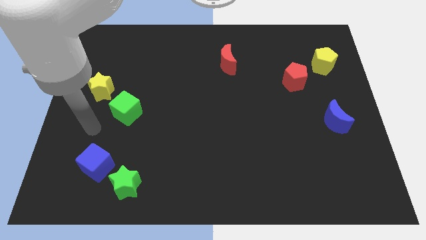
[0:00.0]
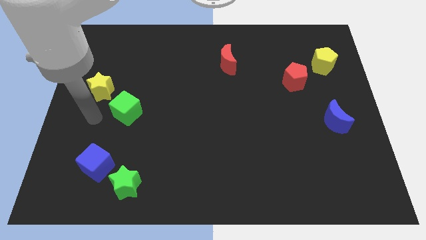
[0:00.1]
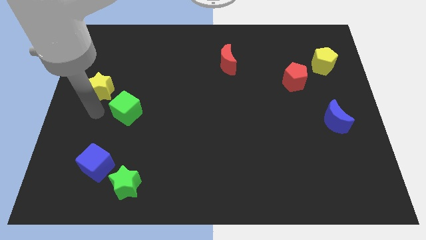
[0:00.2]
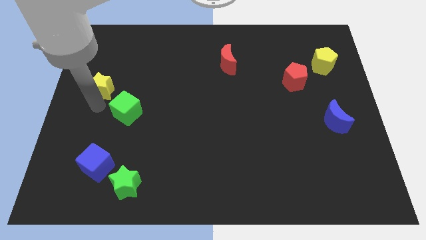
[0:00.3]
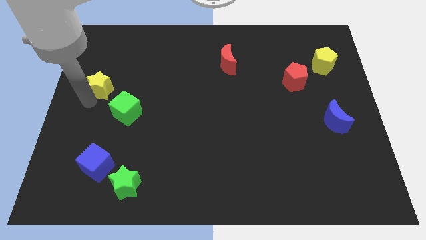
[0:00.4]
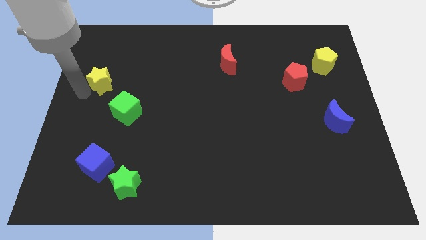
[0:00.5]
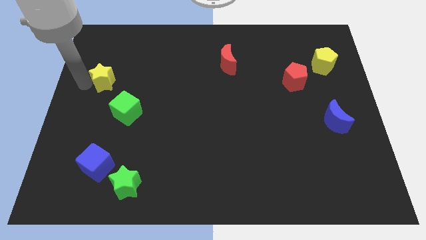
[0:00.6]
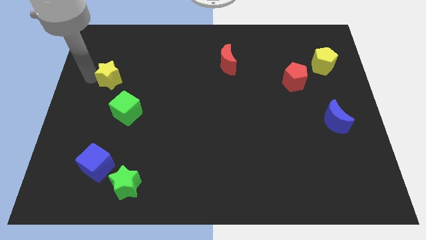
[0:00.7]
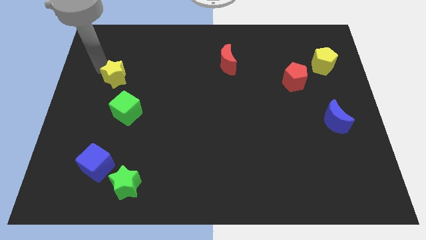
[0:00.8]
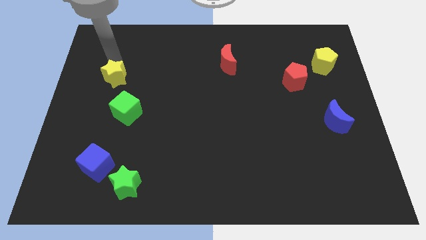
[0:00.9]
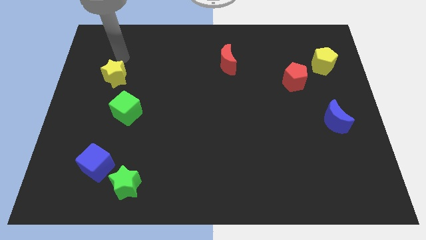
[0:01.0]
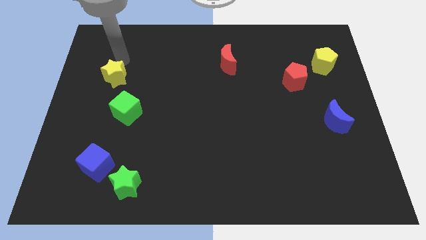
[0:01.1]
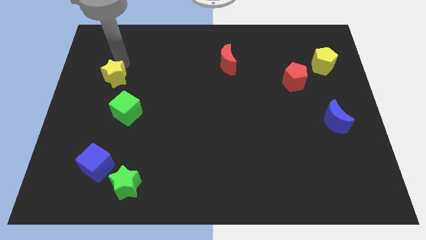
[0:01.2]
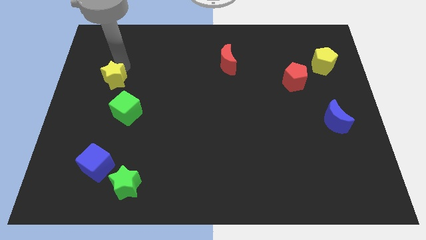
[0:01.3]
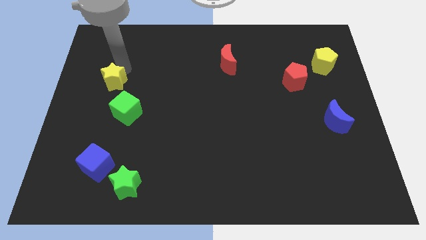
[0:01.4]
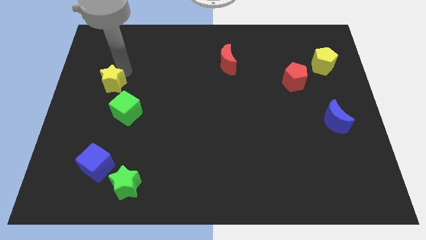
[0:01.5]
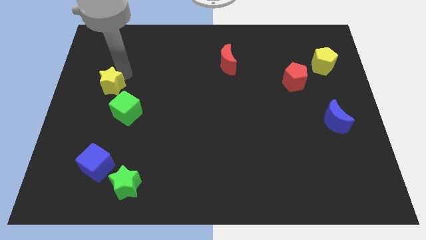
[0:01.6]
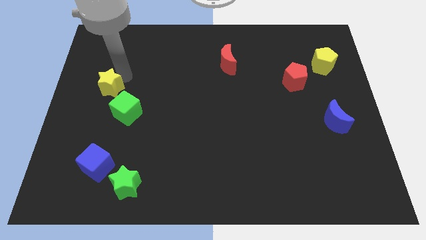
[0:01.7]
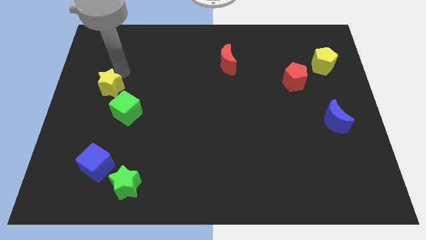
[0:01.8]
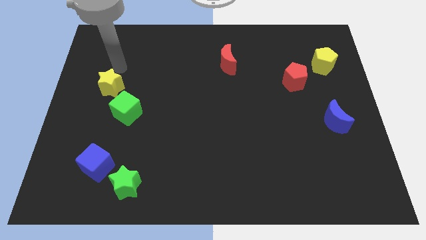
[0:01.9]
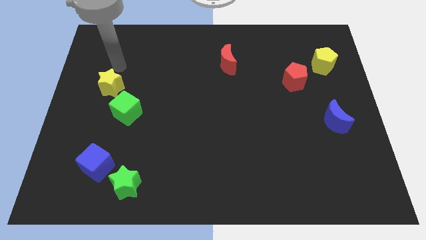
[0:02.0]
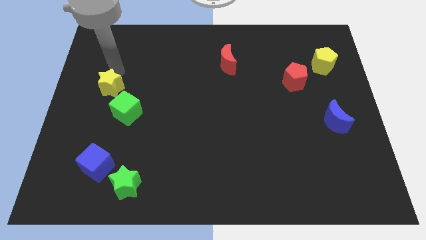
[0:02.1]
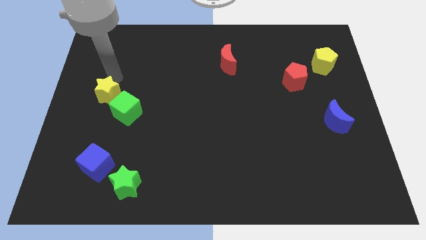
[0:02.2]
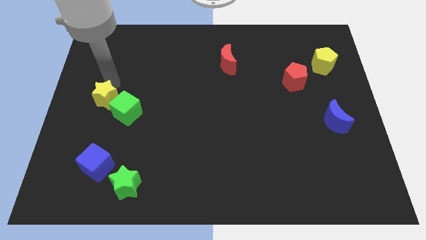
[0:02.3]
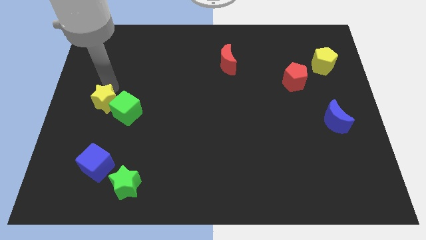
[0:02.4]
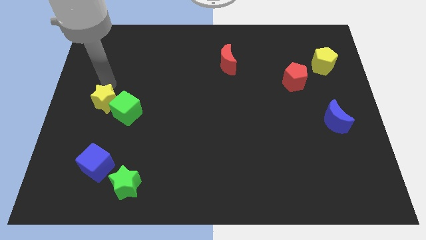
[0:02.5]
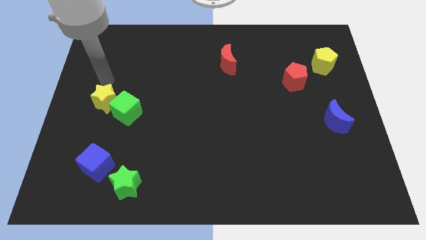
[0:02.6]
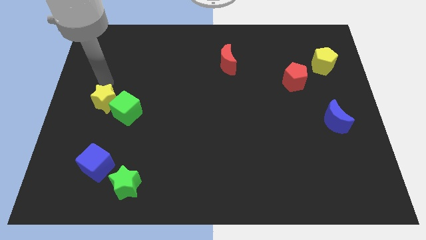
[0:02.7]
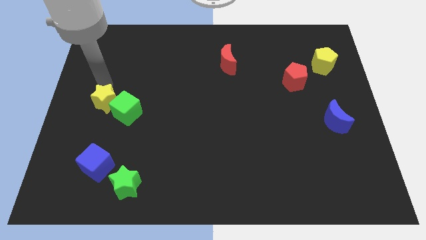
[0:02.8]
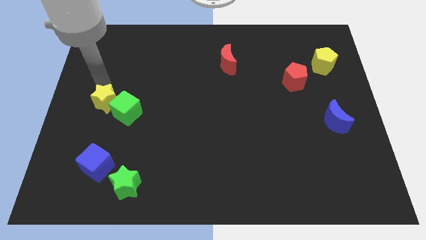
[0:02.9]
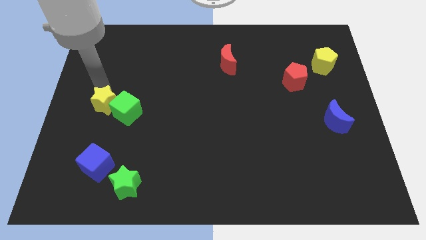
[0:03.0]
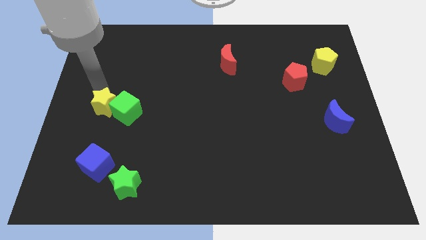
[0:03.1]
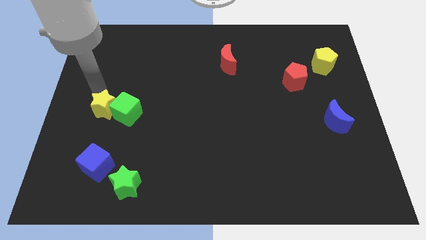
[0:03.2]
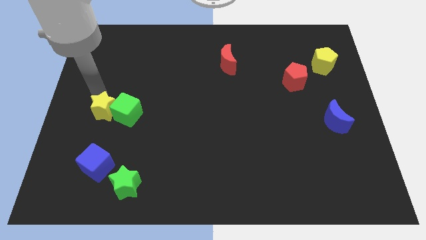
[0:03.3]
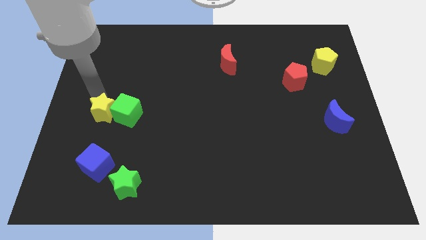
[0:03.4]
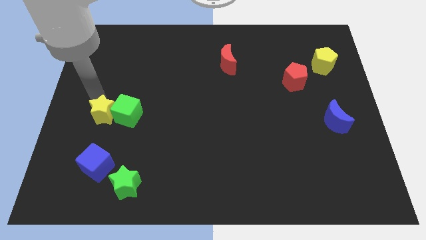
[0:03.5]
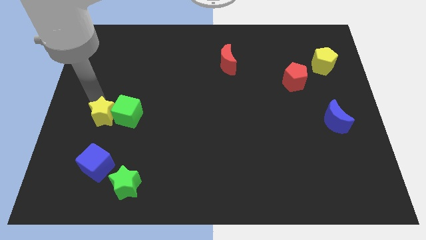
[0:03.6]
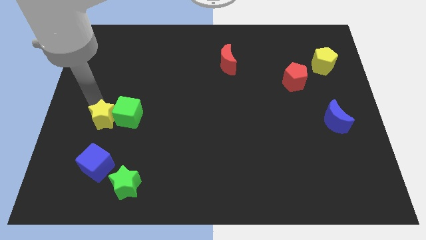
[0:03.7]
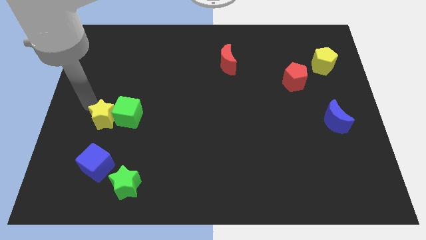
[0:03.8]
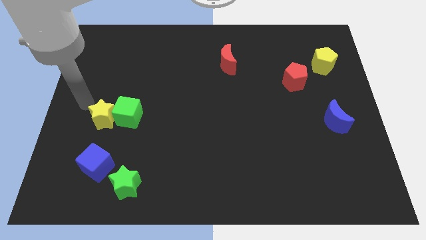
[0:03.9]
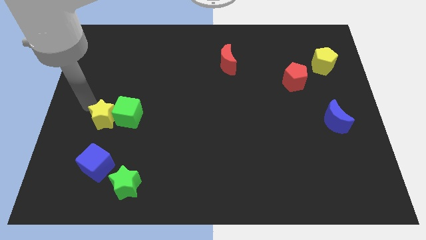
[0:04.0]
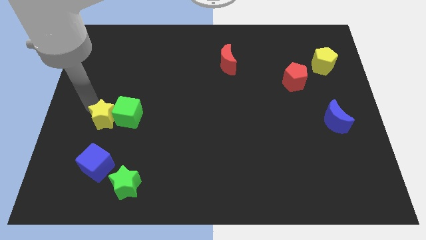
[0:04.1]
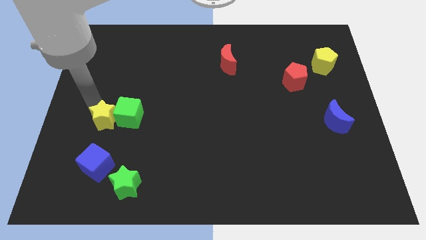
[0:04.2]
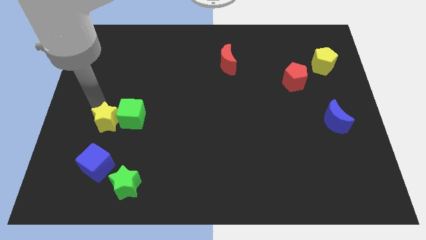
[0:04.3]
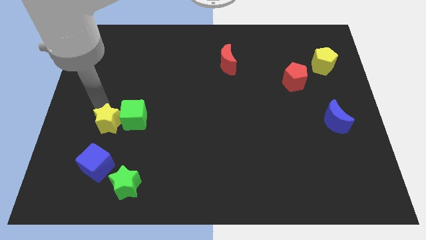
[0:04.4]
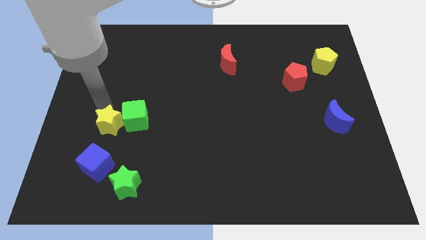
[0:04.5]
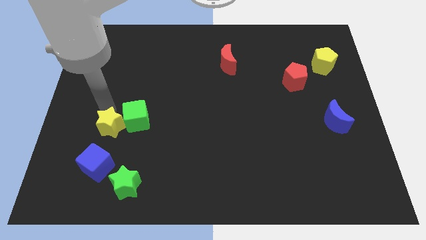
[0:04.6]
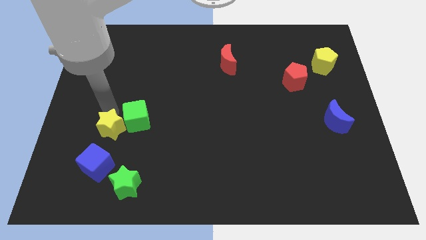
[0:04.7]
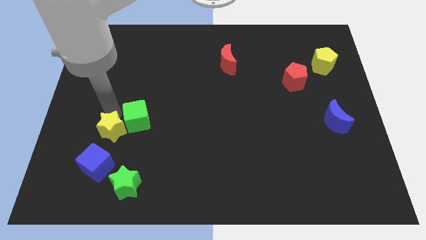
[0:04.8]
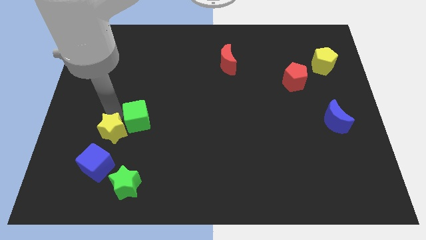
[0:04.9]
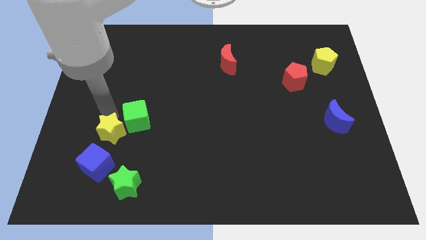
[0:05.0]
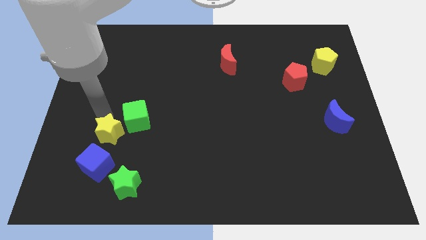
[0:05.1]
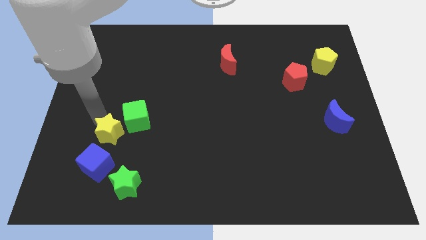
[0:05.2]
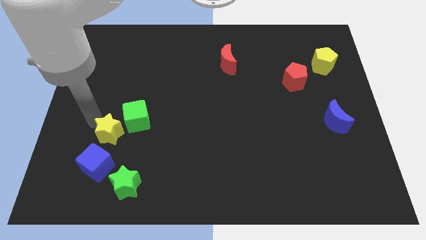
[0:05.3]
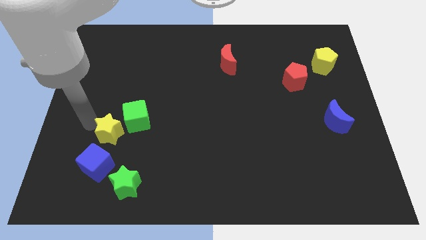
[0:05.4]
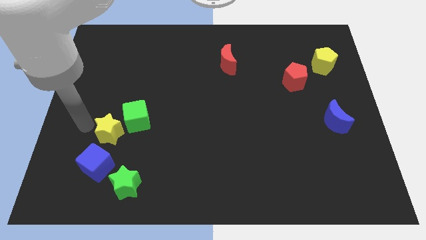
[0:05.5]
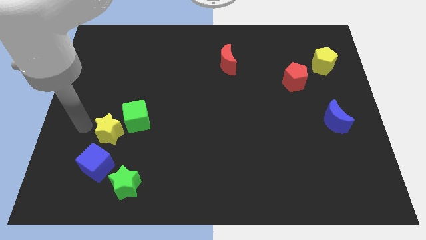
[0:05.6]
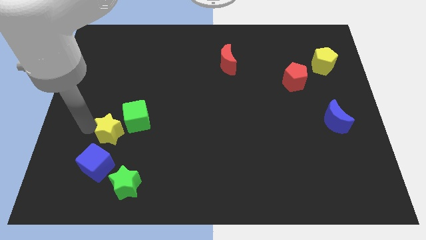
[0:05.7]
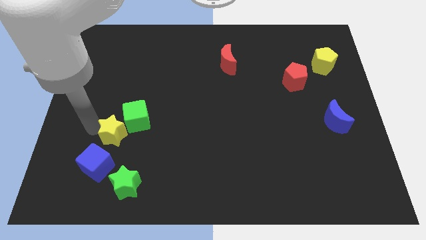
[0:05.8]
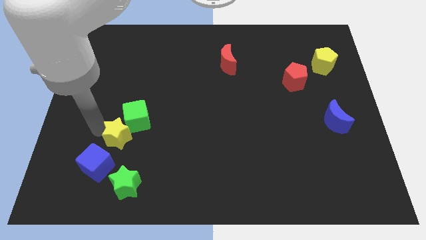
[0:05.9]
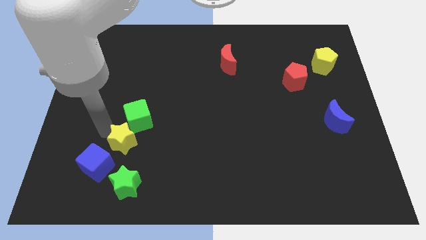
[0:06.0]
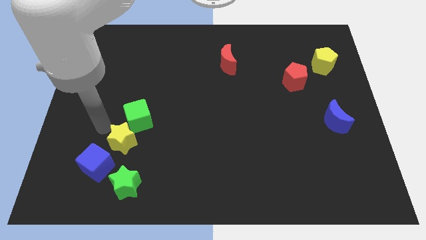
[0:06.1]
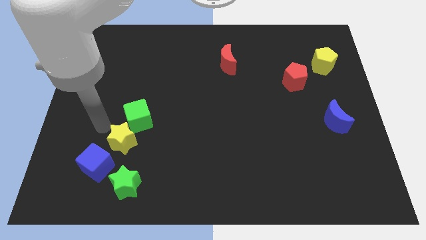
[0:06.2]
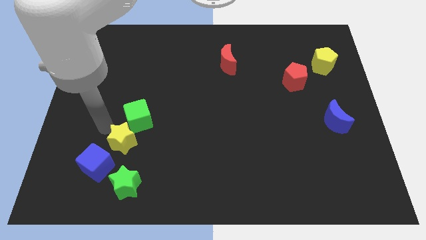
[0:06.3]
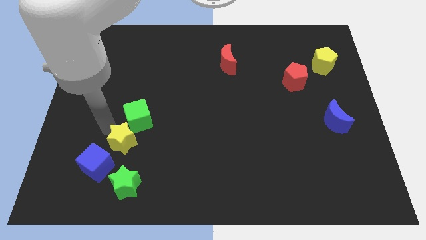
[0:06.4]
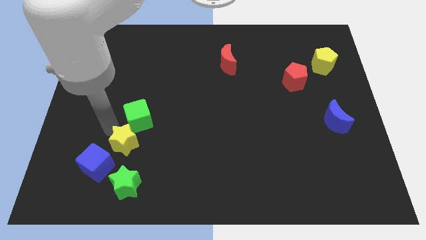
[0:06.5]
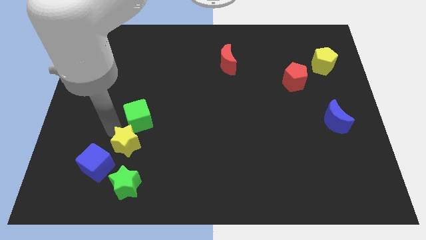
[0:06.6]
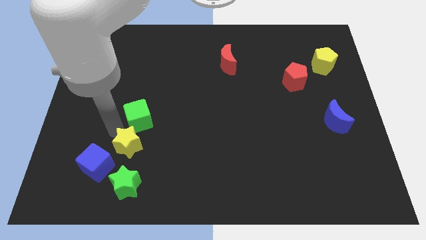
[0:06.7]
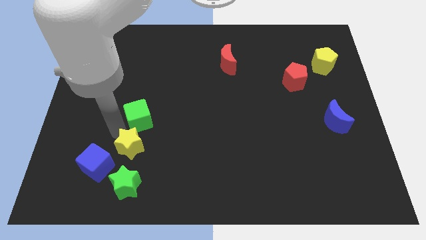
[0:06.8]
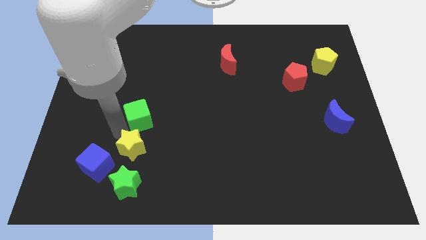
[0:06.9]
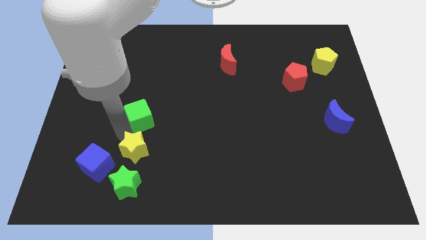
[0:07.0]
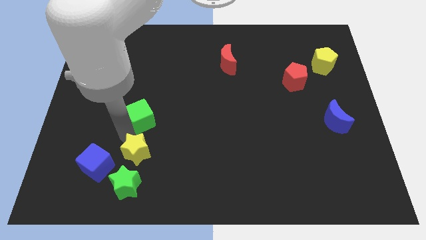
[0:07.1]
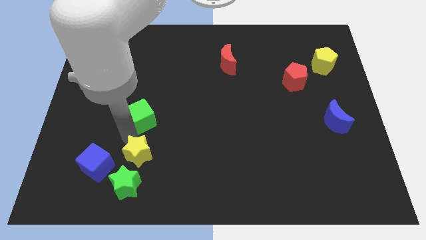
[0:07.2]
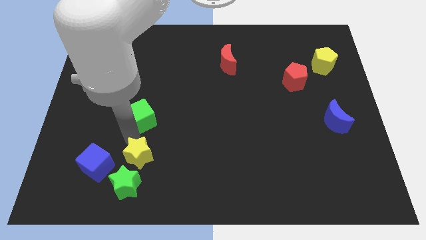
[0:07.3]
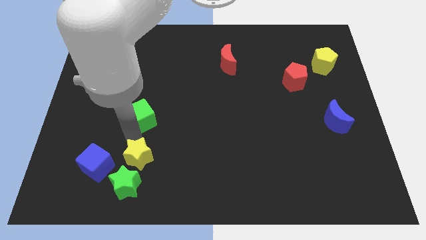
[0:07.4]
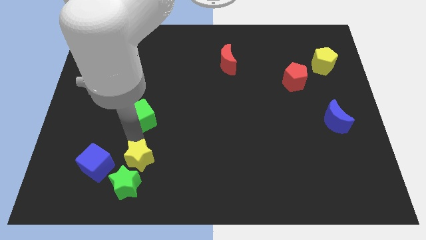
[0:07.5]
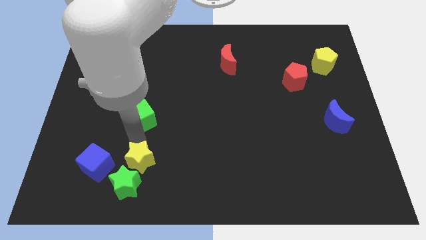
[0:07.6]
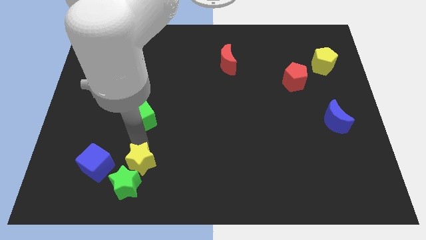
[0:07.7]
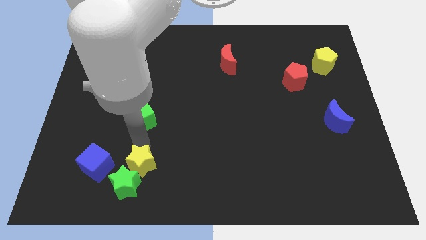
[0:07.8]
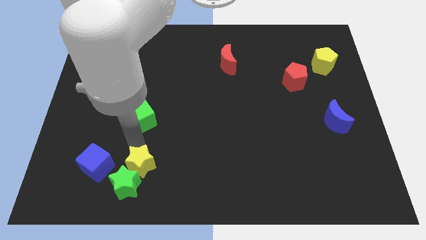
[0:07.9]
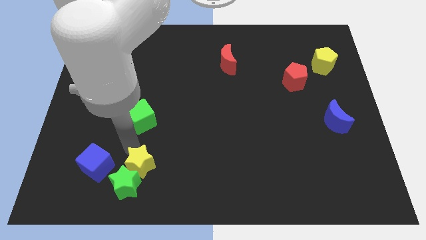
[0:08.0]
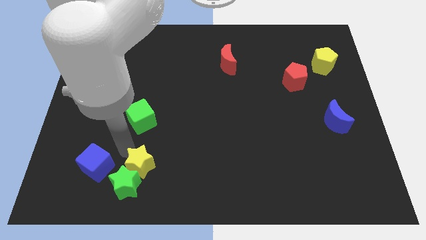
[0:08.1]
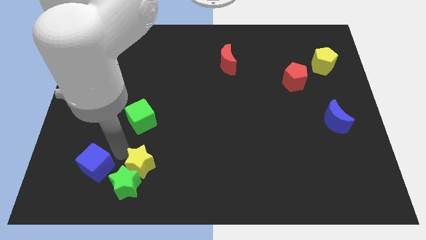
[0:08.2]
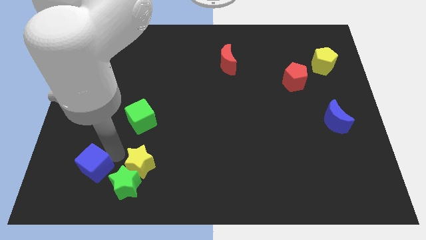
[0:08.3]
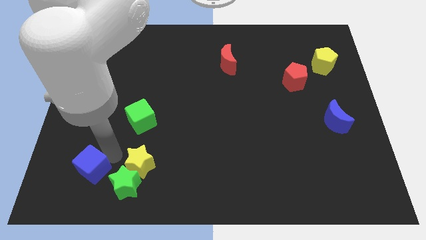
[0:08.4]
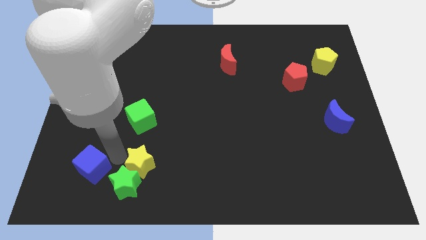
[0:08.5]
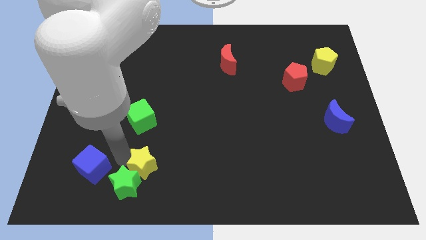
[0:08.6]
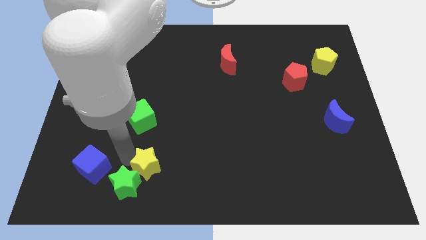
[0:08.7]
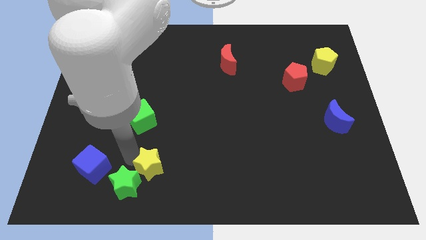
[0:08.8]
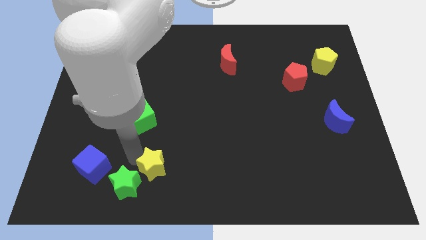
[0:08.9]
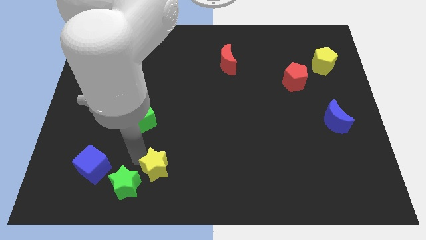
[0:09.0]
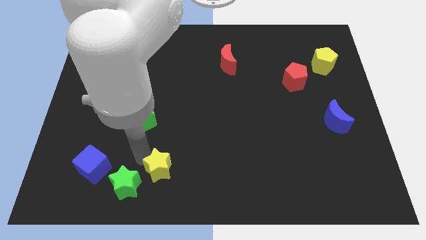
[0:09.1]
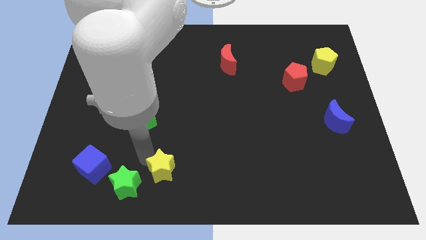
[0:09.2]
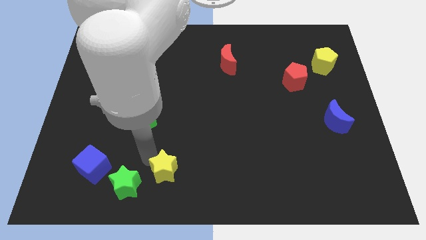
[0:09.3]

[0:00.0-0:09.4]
push the yellow star to the bottom side
